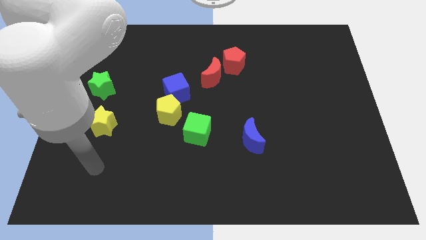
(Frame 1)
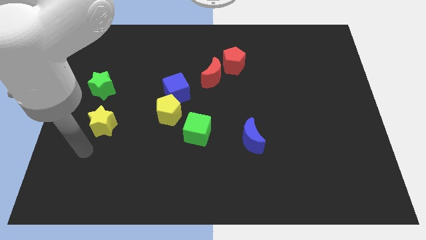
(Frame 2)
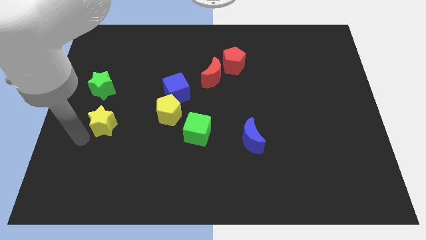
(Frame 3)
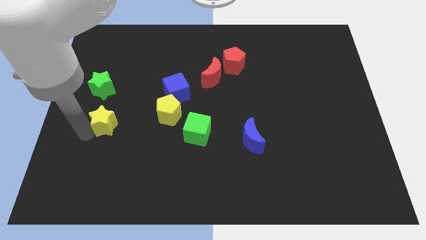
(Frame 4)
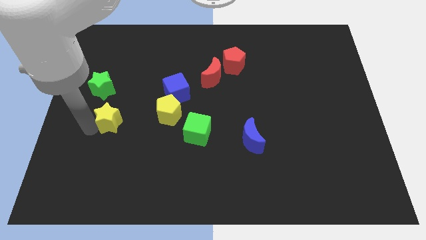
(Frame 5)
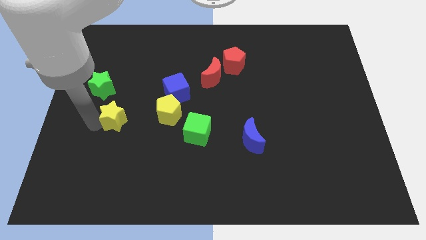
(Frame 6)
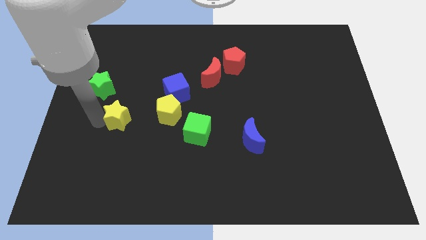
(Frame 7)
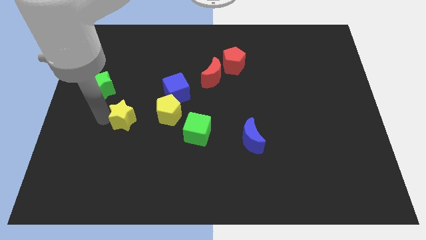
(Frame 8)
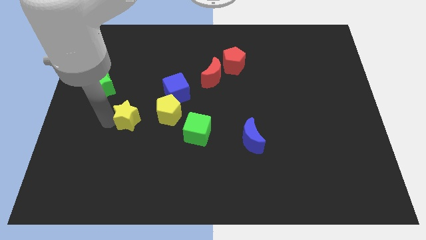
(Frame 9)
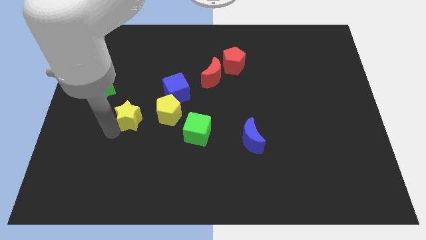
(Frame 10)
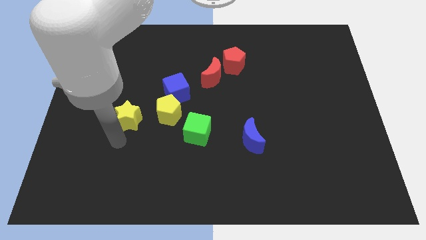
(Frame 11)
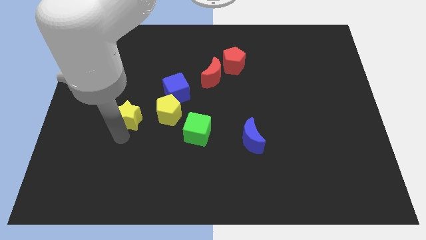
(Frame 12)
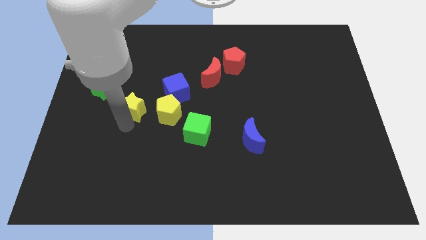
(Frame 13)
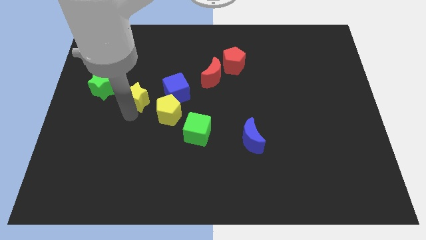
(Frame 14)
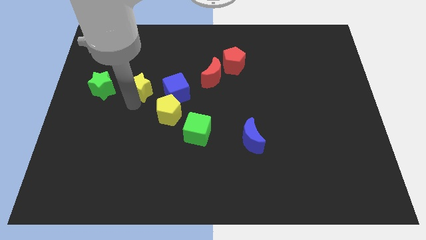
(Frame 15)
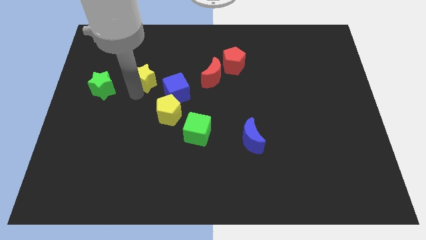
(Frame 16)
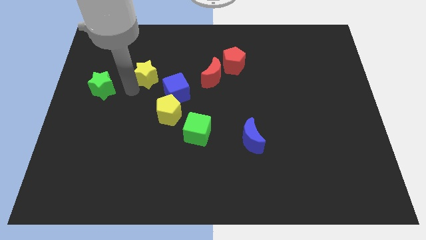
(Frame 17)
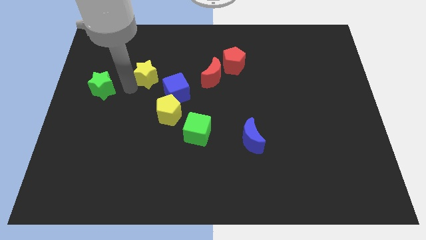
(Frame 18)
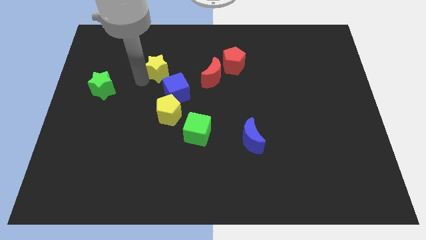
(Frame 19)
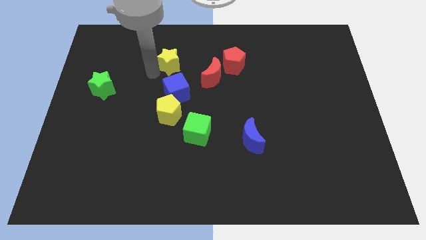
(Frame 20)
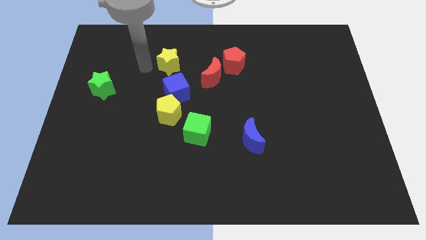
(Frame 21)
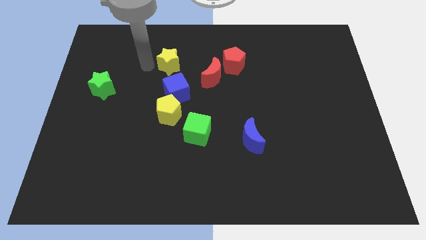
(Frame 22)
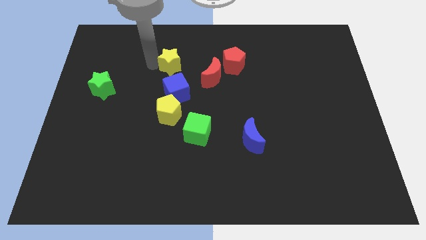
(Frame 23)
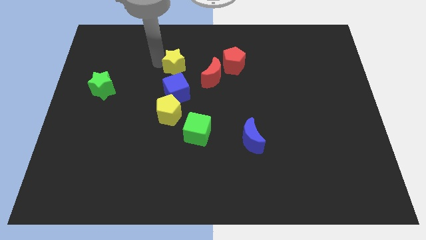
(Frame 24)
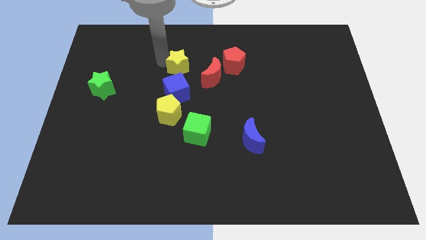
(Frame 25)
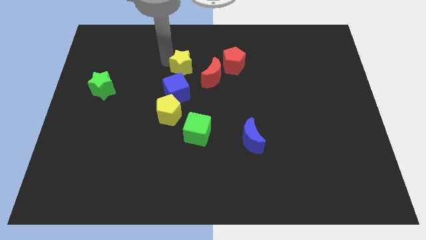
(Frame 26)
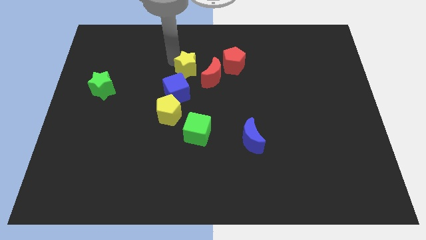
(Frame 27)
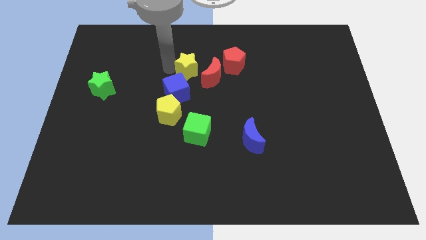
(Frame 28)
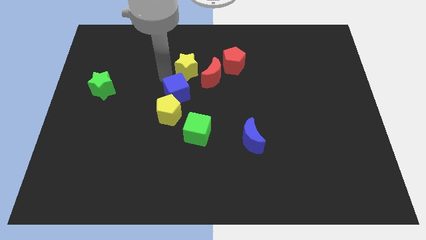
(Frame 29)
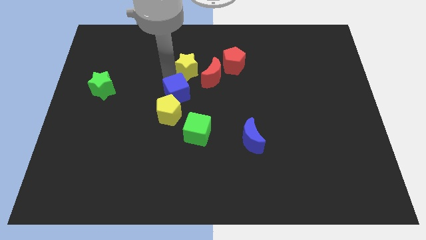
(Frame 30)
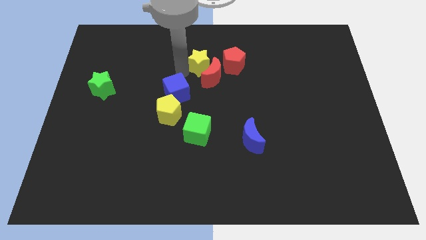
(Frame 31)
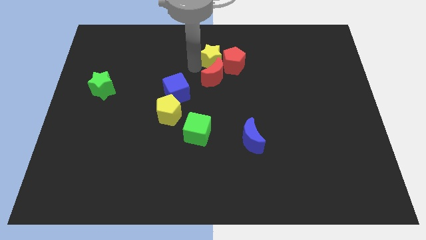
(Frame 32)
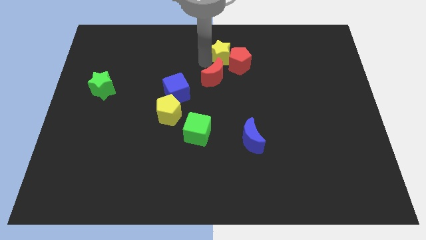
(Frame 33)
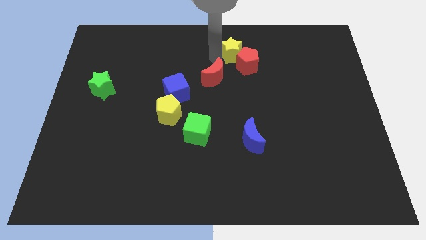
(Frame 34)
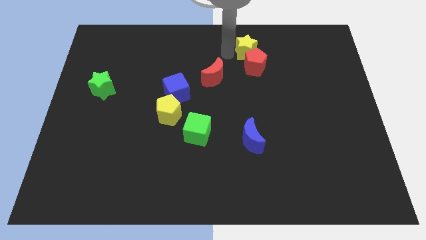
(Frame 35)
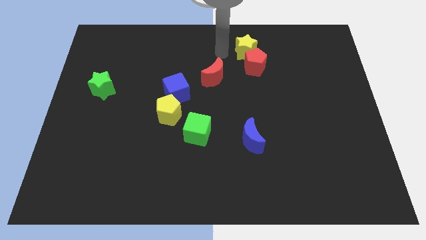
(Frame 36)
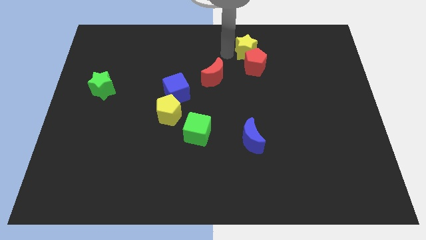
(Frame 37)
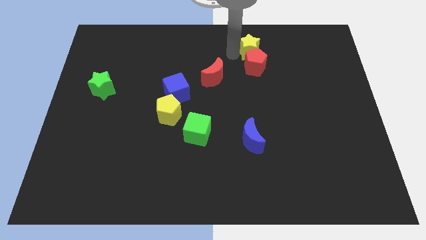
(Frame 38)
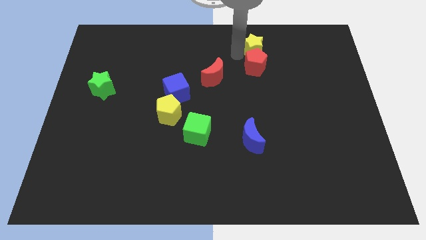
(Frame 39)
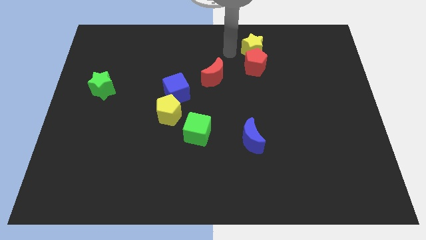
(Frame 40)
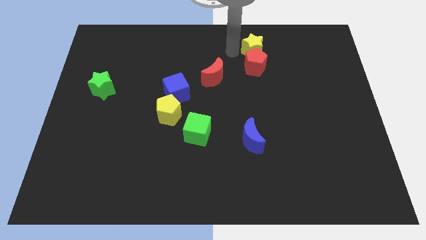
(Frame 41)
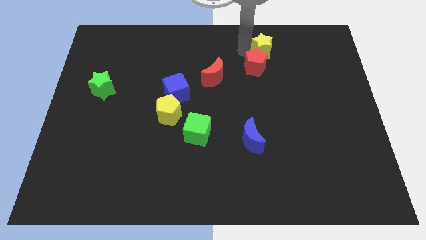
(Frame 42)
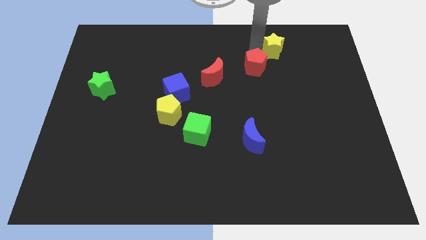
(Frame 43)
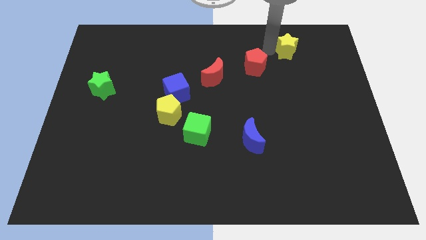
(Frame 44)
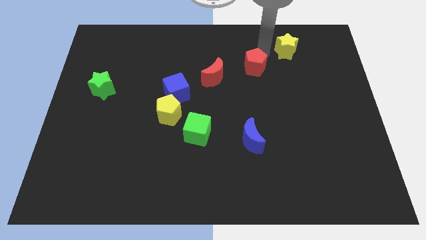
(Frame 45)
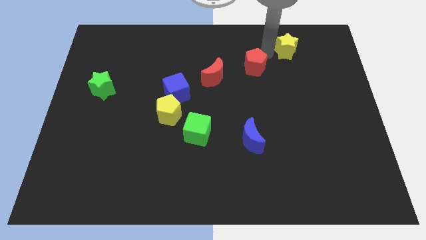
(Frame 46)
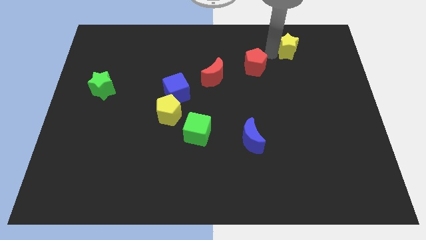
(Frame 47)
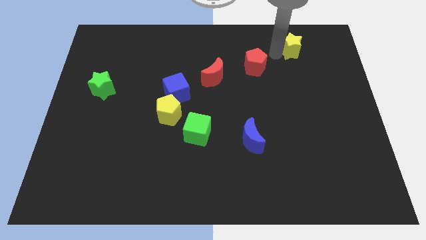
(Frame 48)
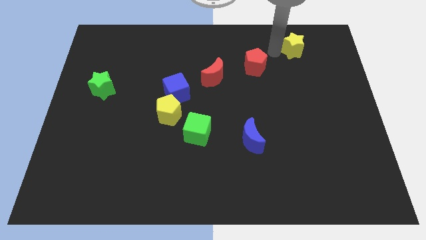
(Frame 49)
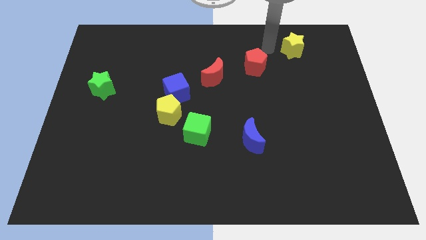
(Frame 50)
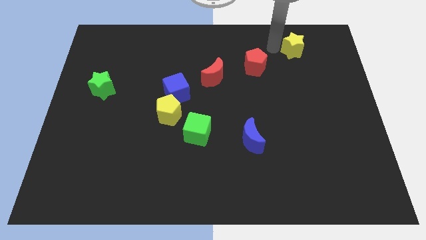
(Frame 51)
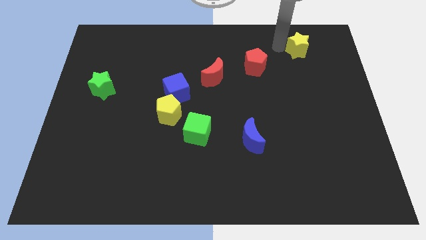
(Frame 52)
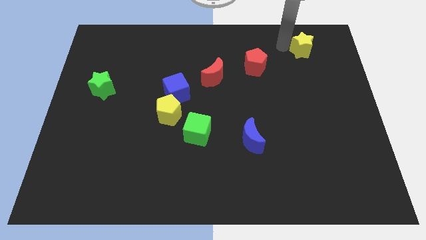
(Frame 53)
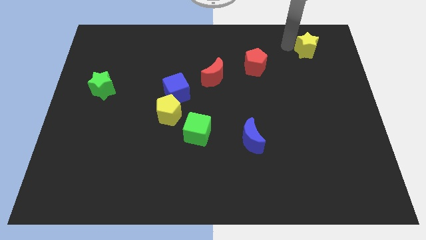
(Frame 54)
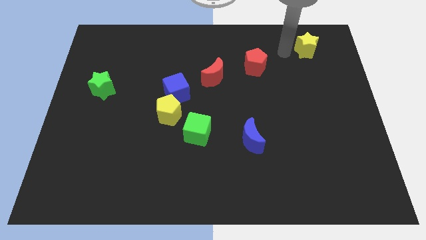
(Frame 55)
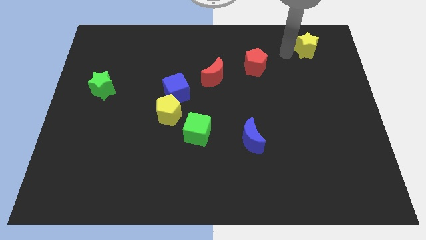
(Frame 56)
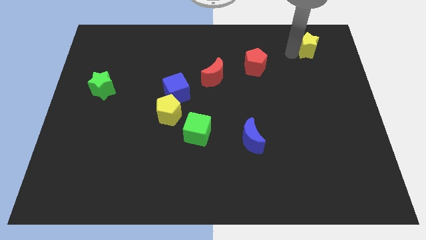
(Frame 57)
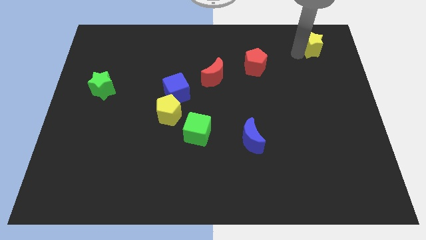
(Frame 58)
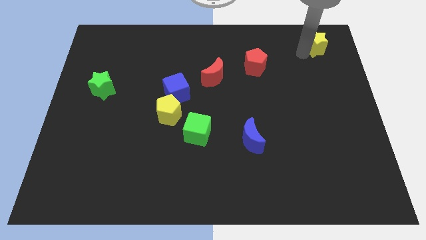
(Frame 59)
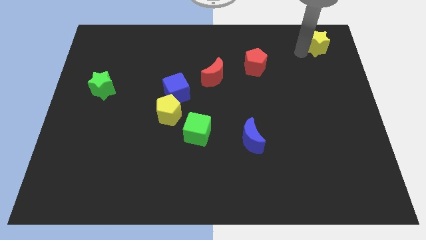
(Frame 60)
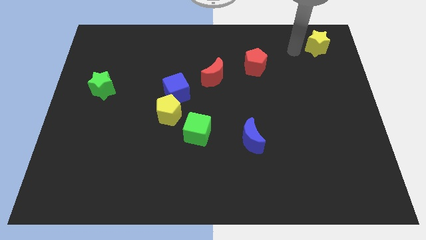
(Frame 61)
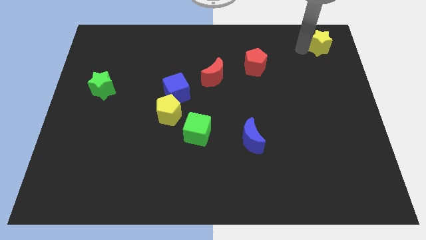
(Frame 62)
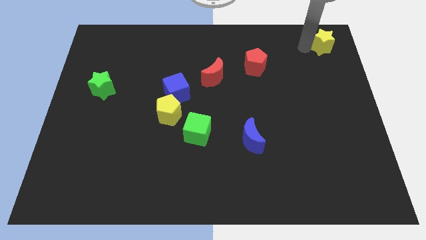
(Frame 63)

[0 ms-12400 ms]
push the yellow star to the top right corner
